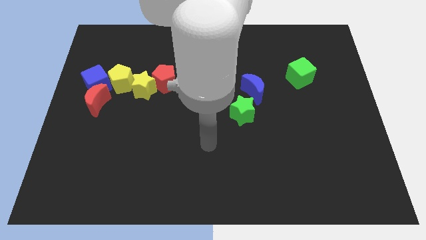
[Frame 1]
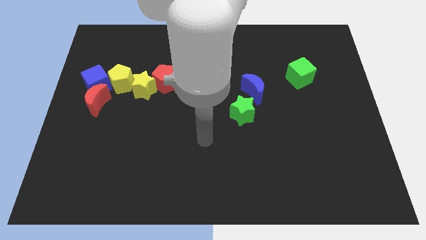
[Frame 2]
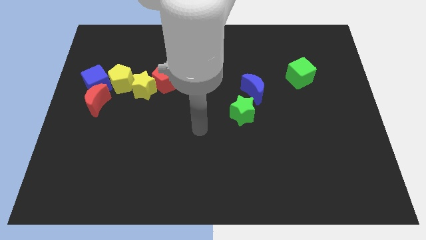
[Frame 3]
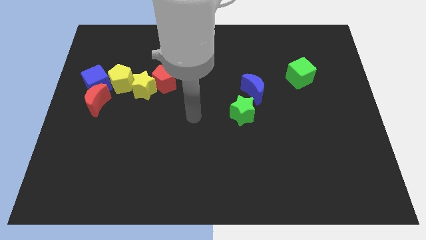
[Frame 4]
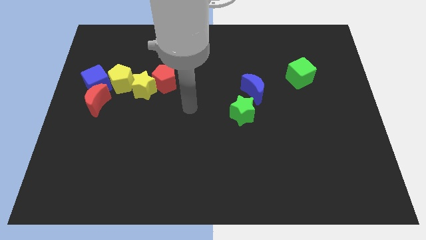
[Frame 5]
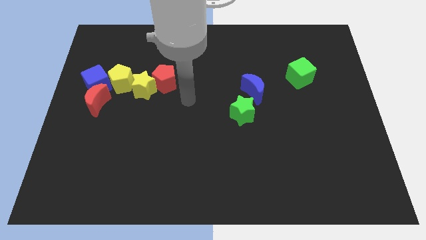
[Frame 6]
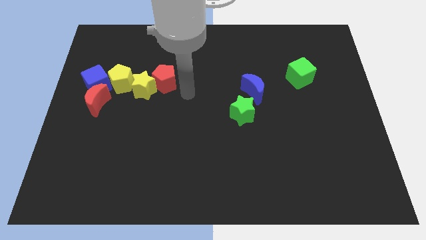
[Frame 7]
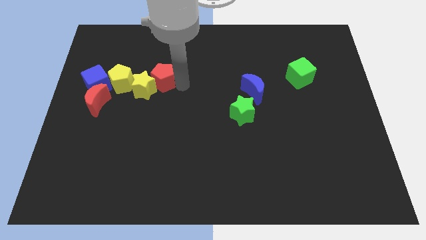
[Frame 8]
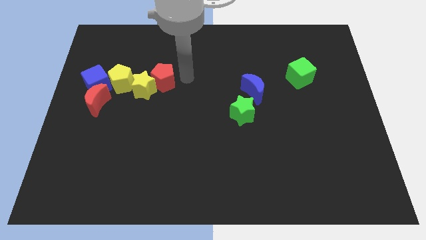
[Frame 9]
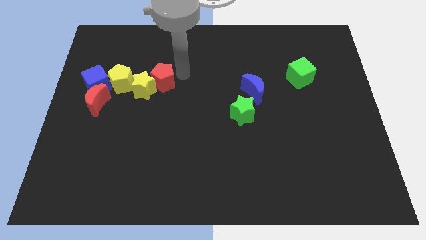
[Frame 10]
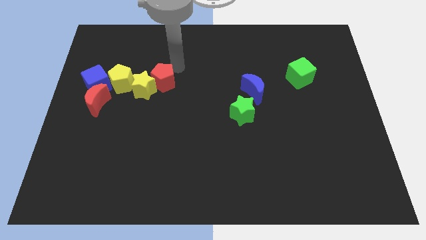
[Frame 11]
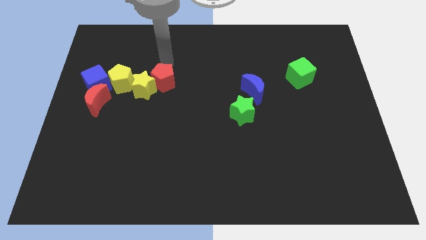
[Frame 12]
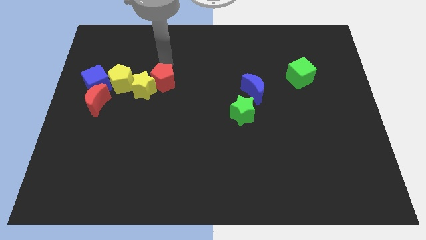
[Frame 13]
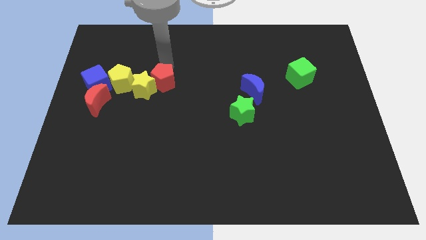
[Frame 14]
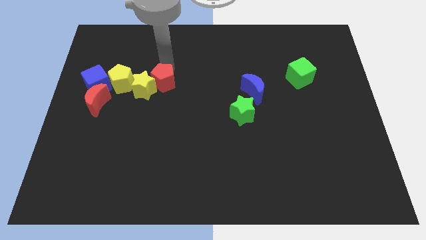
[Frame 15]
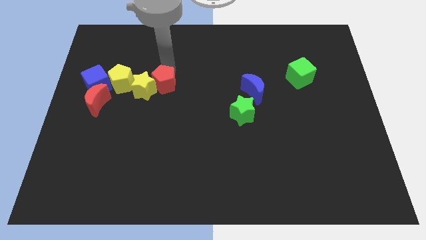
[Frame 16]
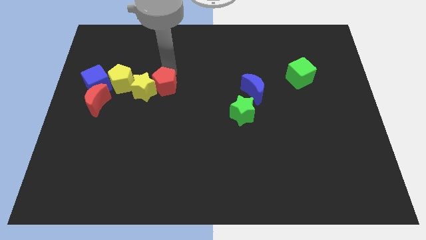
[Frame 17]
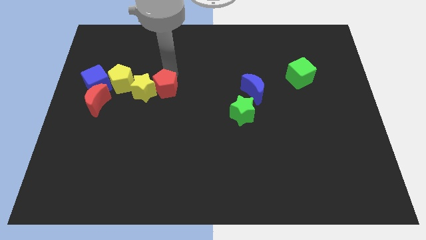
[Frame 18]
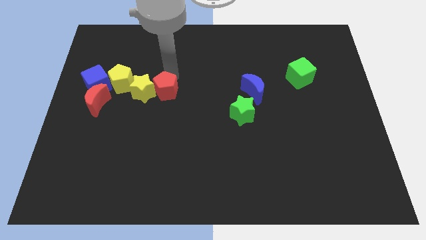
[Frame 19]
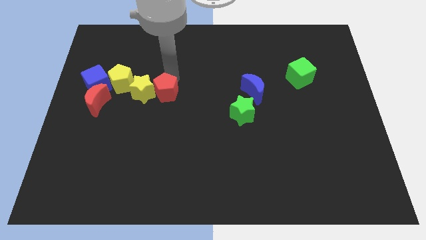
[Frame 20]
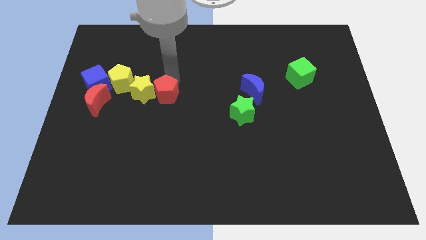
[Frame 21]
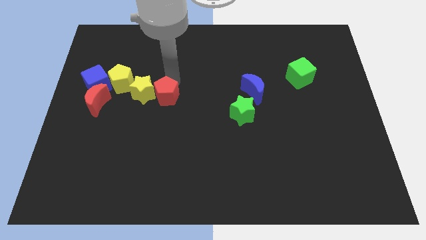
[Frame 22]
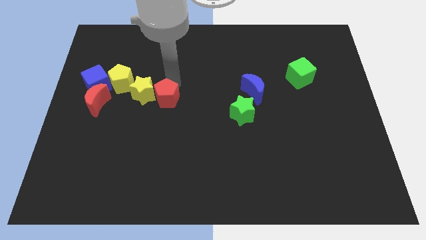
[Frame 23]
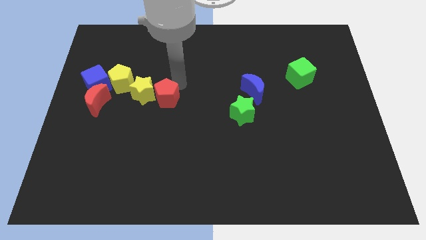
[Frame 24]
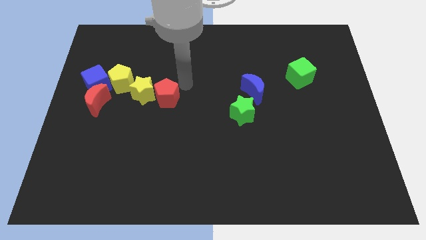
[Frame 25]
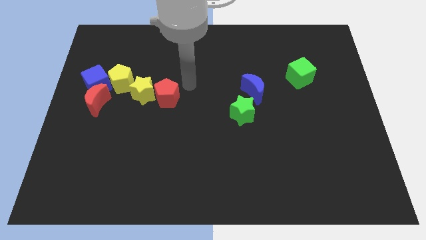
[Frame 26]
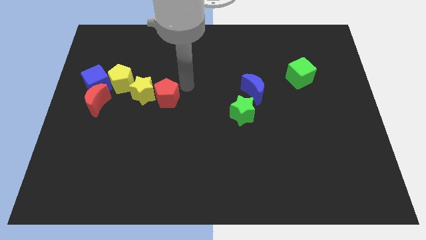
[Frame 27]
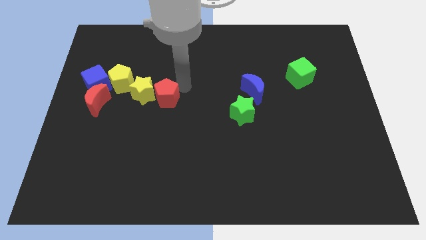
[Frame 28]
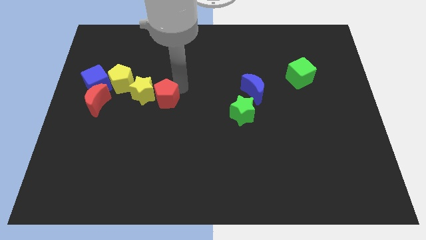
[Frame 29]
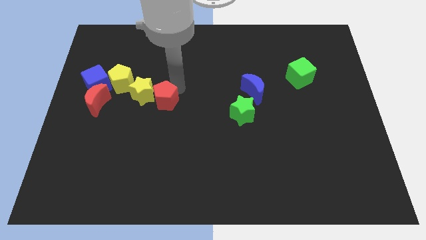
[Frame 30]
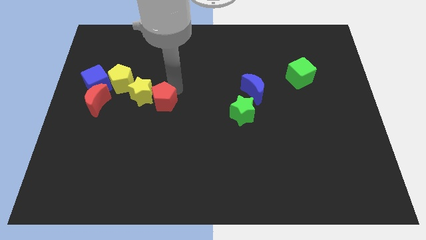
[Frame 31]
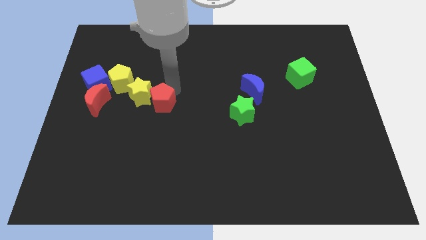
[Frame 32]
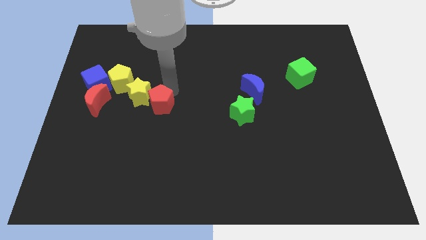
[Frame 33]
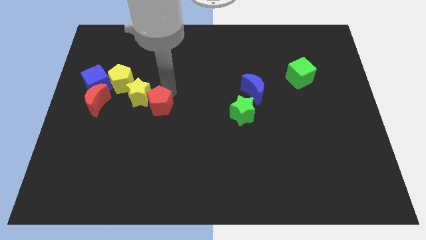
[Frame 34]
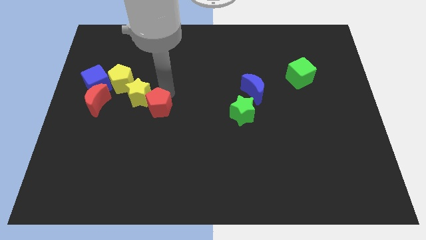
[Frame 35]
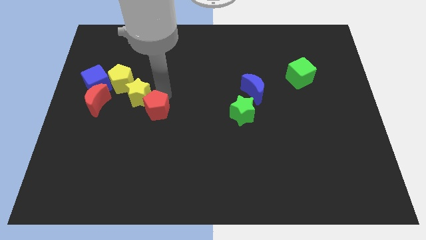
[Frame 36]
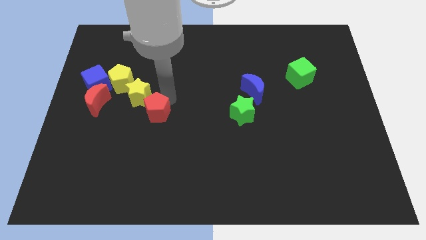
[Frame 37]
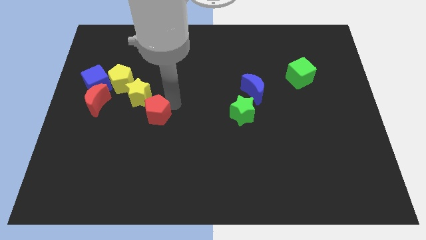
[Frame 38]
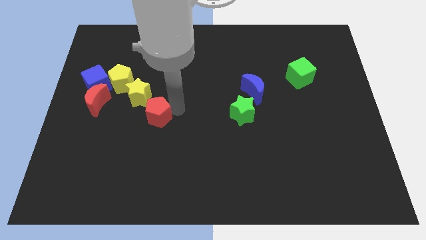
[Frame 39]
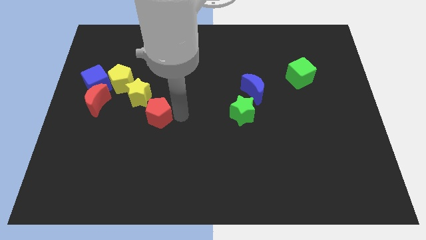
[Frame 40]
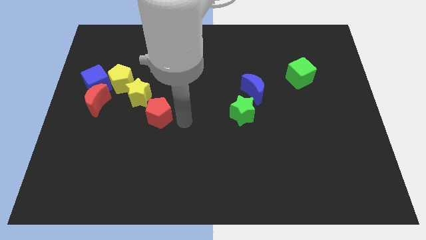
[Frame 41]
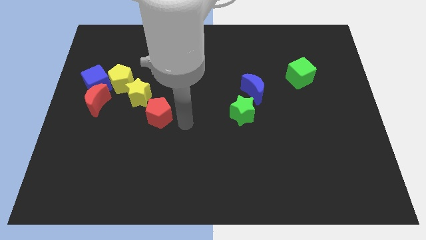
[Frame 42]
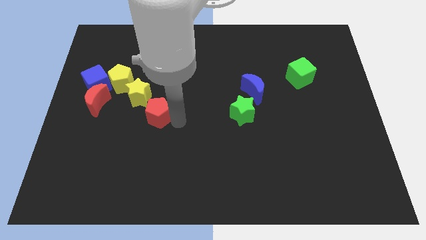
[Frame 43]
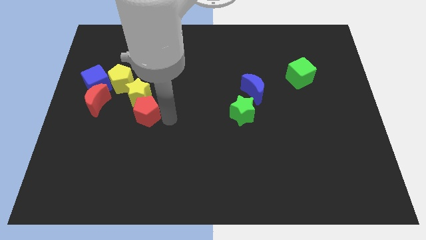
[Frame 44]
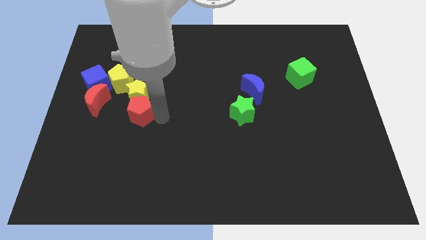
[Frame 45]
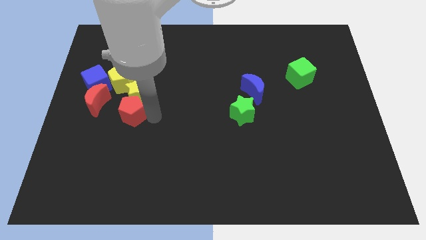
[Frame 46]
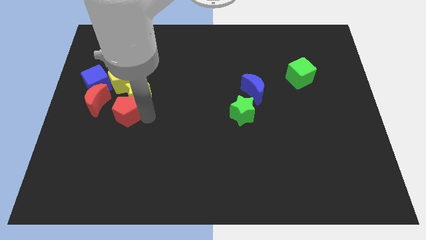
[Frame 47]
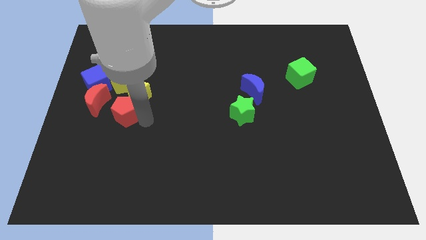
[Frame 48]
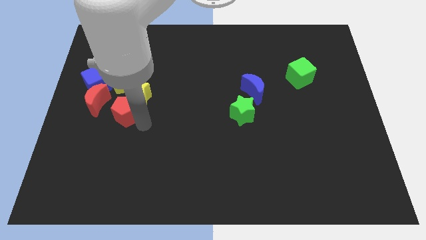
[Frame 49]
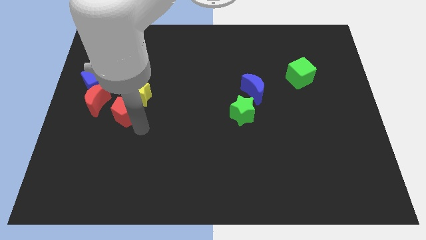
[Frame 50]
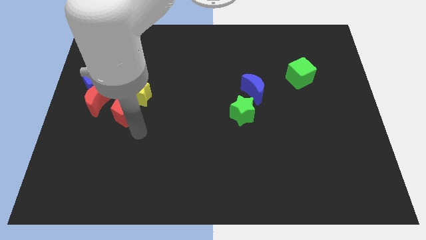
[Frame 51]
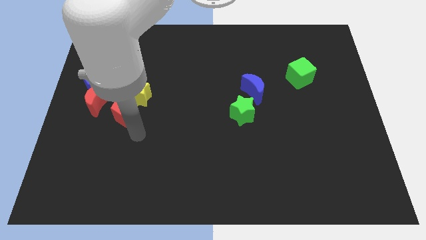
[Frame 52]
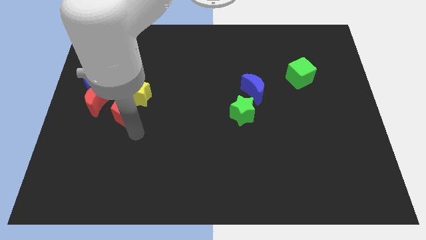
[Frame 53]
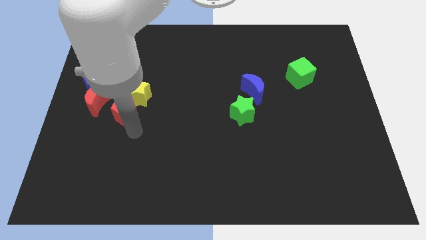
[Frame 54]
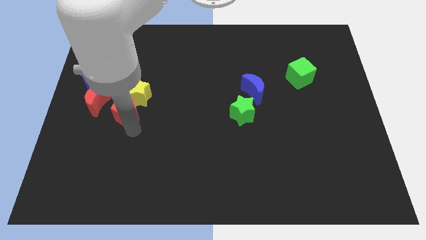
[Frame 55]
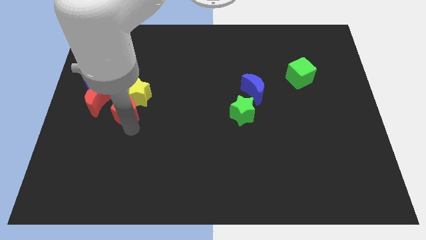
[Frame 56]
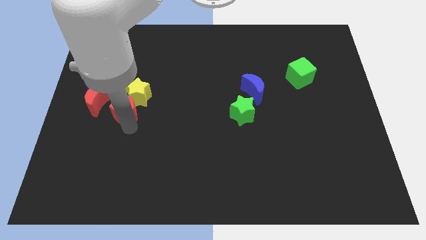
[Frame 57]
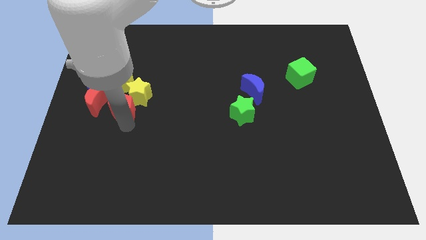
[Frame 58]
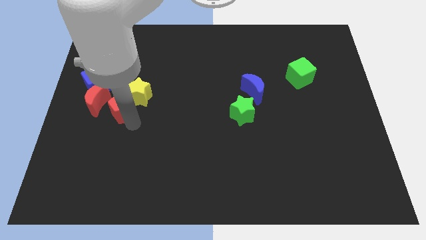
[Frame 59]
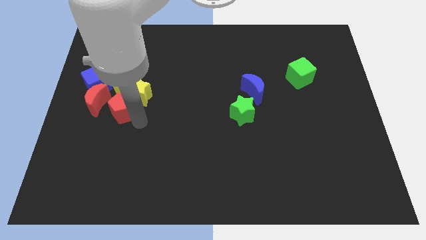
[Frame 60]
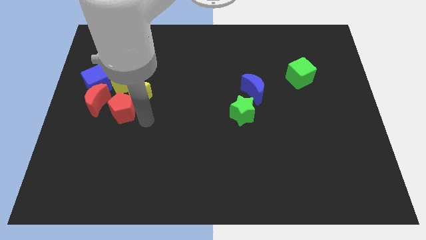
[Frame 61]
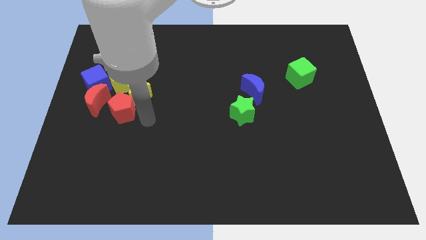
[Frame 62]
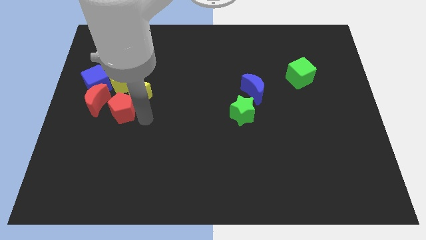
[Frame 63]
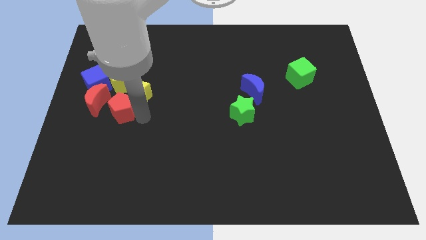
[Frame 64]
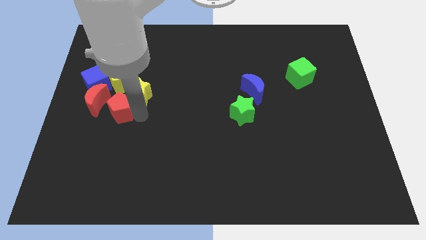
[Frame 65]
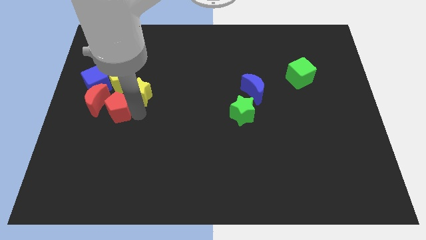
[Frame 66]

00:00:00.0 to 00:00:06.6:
slide the red pentagon towards the red moon
